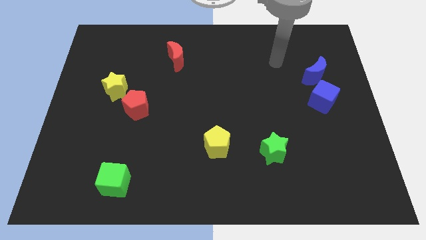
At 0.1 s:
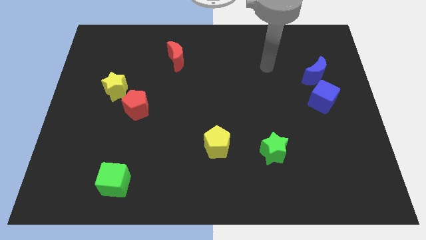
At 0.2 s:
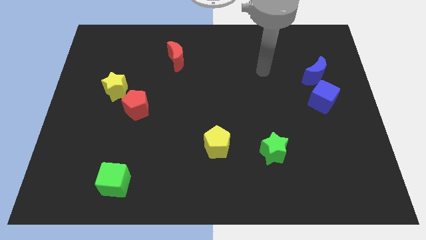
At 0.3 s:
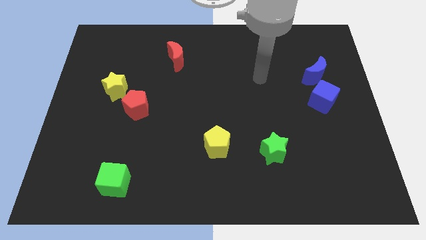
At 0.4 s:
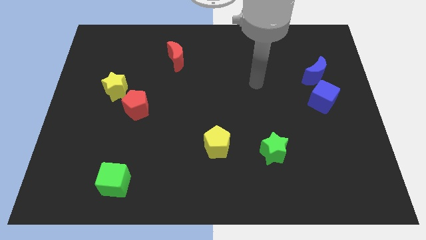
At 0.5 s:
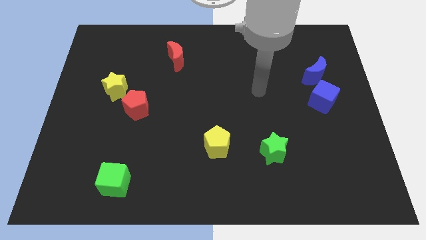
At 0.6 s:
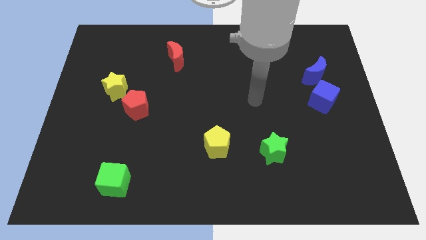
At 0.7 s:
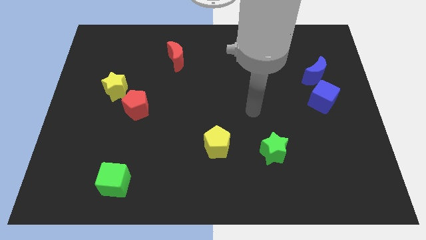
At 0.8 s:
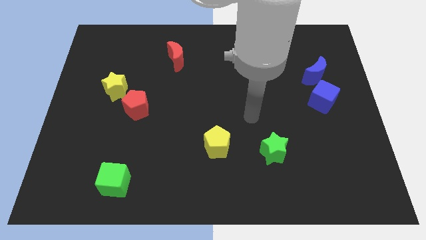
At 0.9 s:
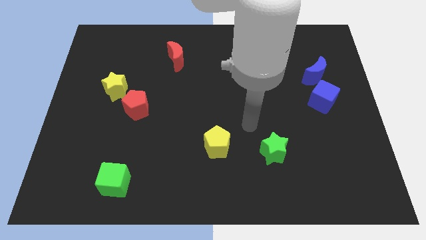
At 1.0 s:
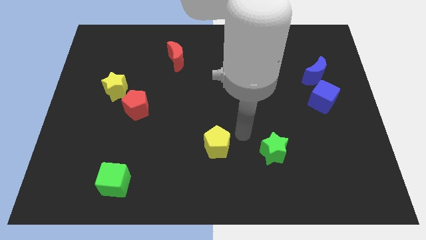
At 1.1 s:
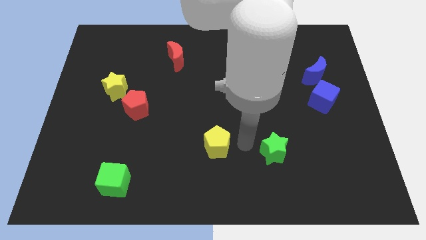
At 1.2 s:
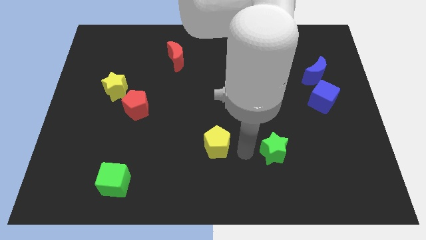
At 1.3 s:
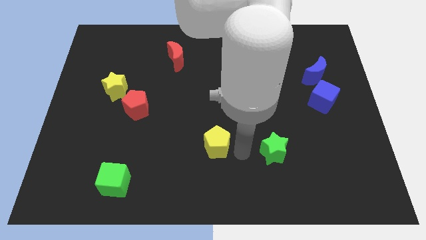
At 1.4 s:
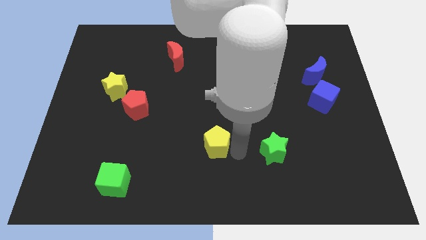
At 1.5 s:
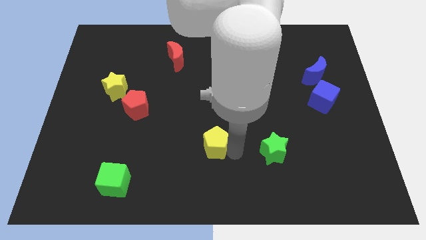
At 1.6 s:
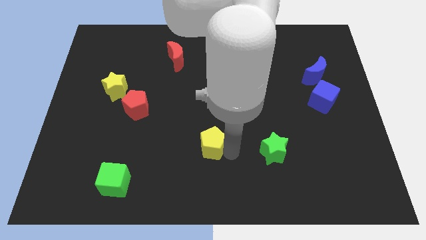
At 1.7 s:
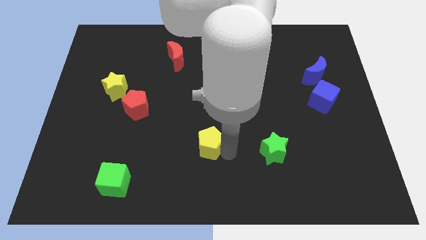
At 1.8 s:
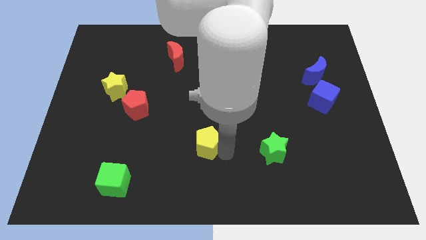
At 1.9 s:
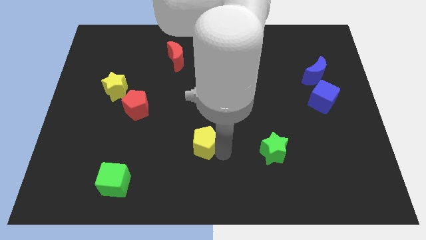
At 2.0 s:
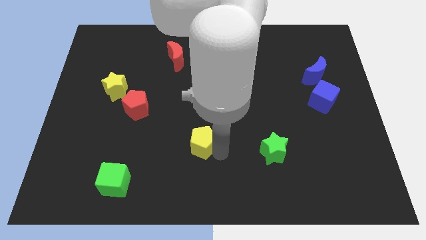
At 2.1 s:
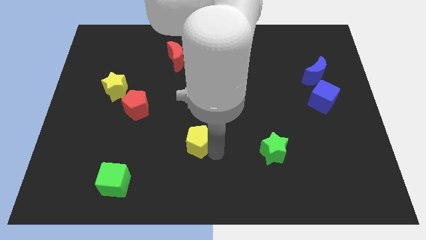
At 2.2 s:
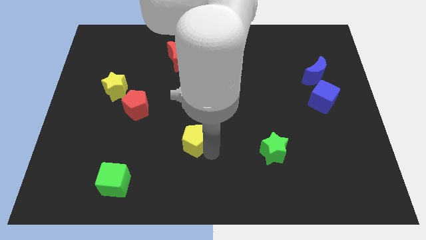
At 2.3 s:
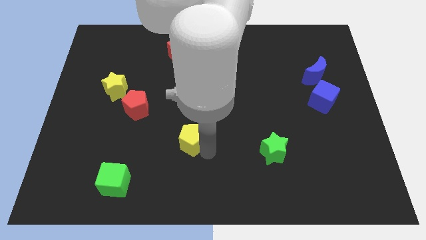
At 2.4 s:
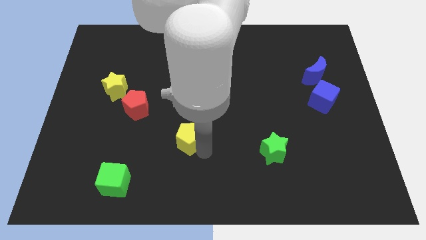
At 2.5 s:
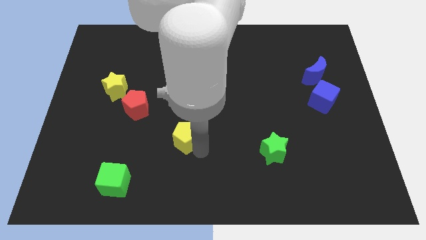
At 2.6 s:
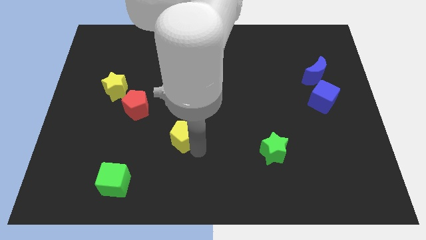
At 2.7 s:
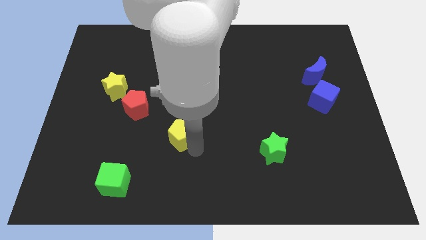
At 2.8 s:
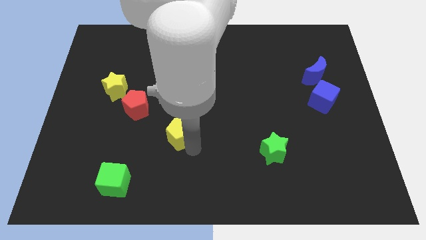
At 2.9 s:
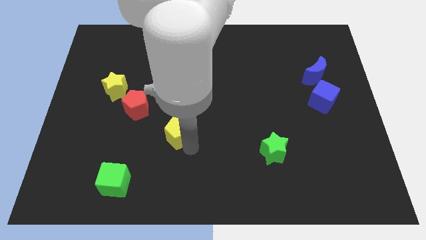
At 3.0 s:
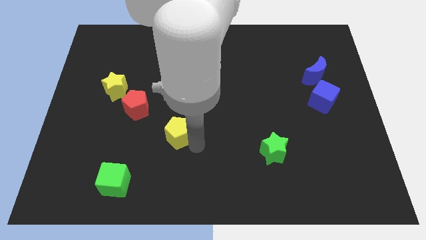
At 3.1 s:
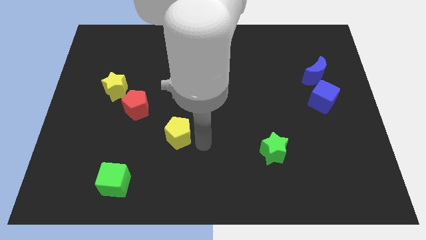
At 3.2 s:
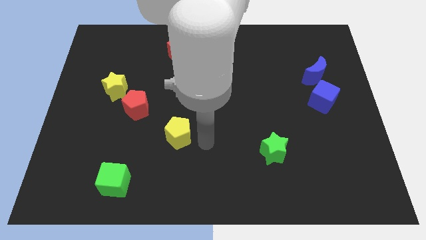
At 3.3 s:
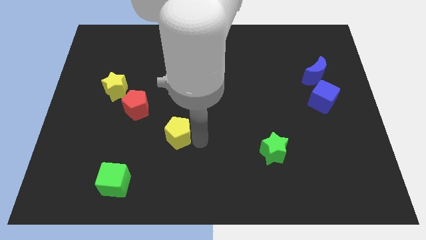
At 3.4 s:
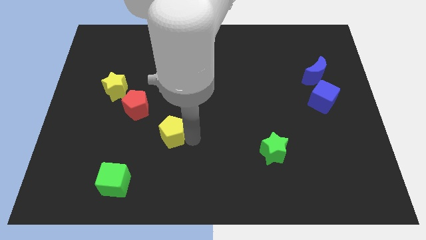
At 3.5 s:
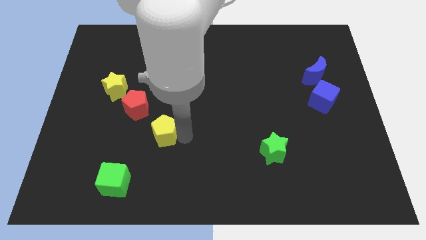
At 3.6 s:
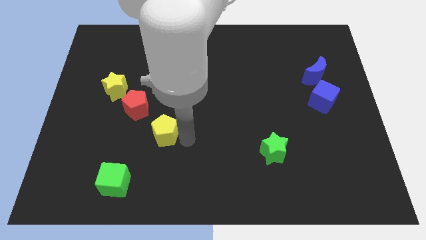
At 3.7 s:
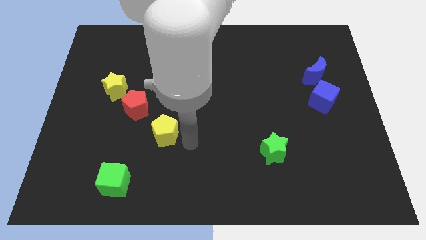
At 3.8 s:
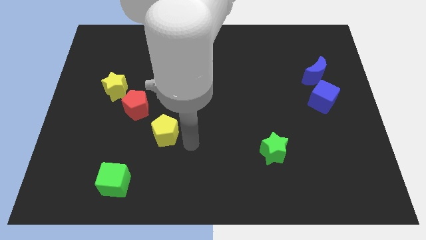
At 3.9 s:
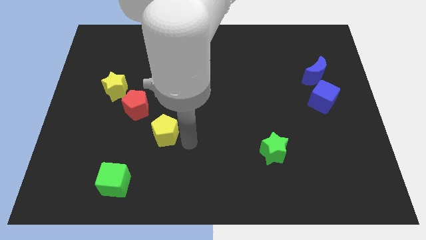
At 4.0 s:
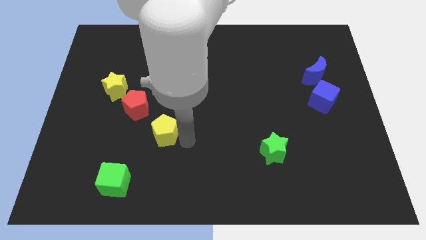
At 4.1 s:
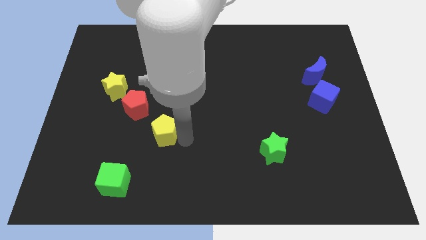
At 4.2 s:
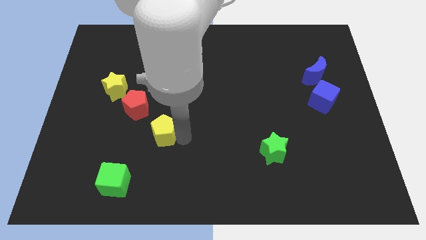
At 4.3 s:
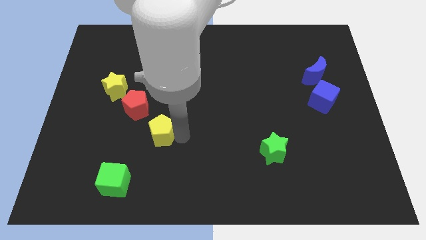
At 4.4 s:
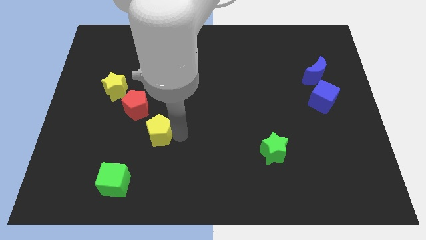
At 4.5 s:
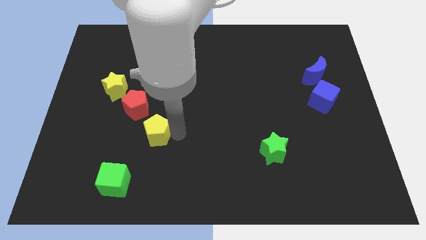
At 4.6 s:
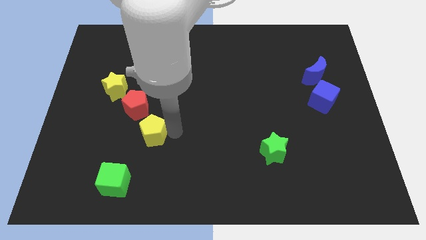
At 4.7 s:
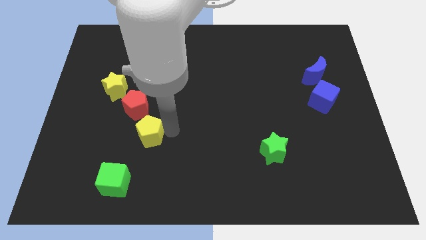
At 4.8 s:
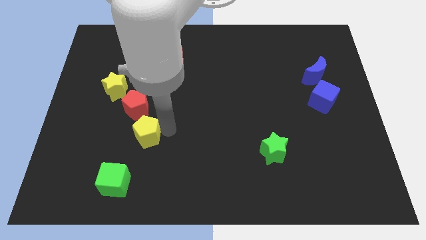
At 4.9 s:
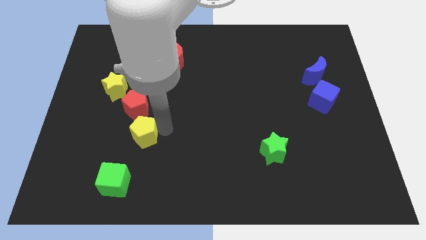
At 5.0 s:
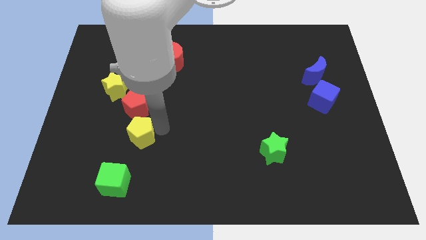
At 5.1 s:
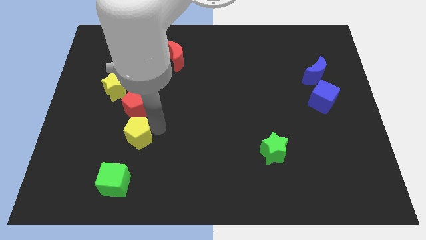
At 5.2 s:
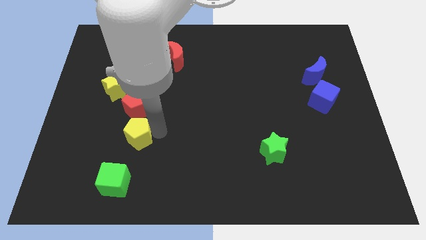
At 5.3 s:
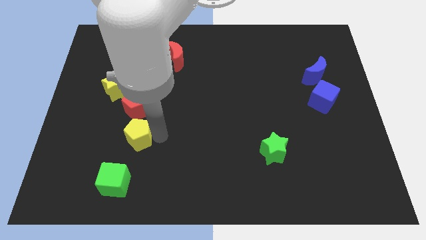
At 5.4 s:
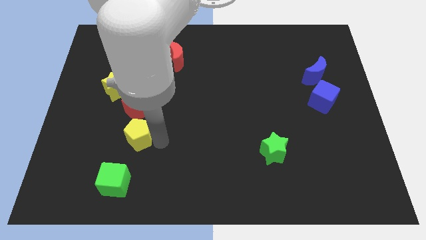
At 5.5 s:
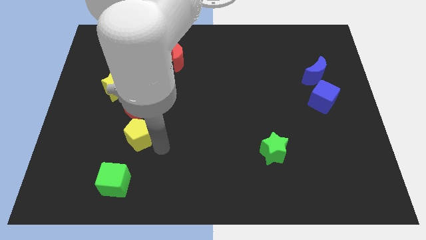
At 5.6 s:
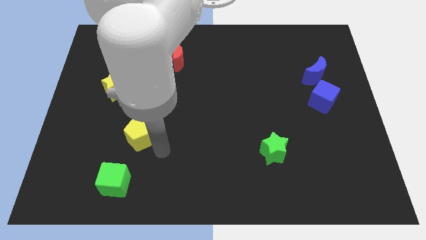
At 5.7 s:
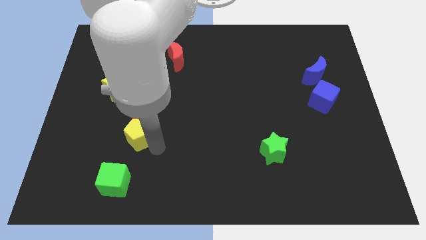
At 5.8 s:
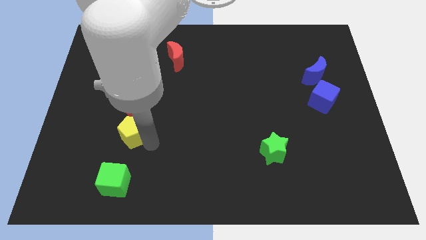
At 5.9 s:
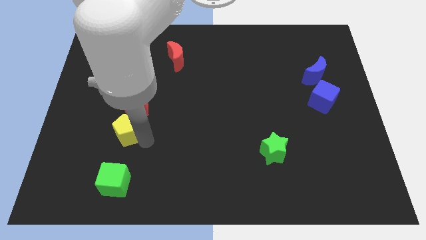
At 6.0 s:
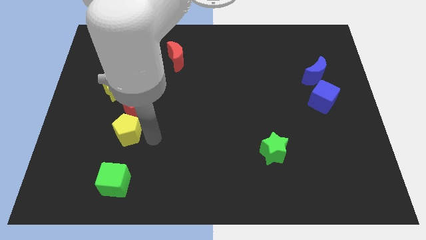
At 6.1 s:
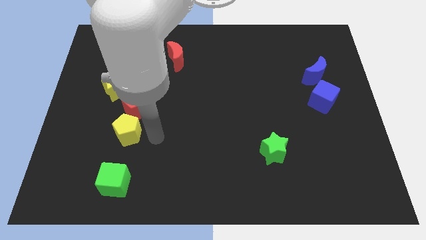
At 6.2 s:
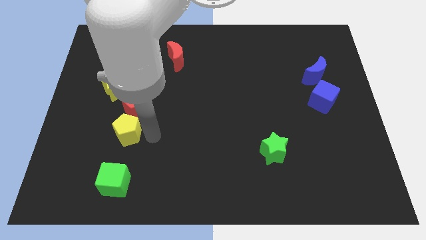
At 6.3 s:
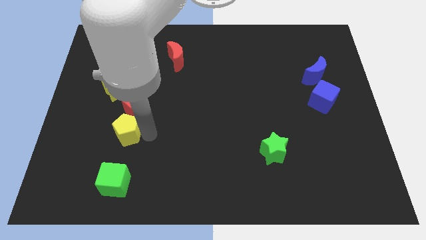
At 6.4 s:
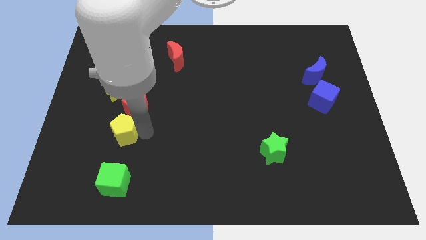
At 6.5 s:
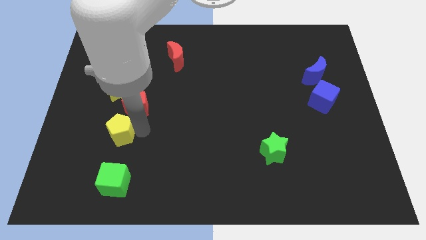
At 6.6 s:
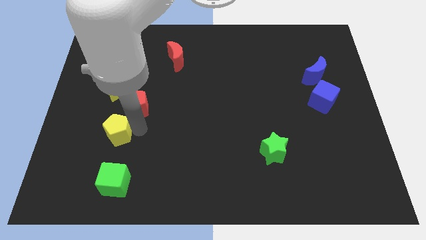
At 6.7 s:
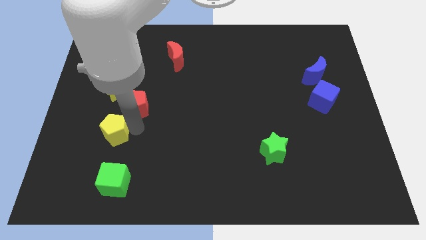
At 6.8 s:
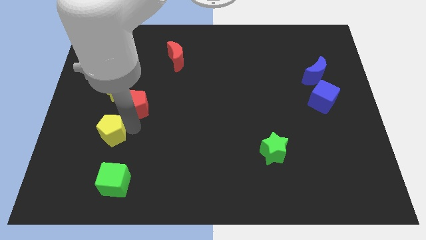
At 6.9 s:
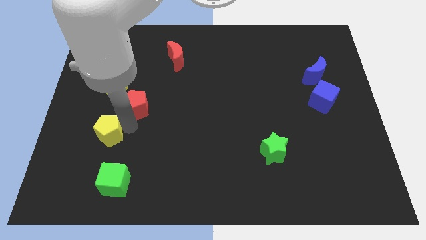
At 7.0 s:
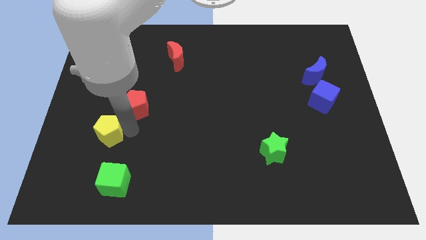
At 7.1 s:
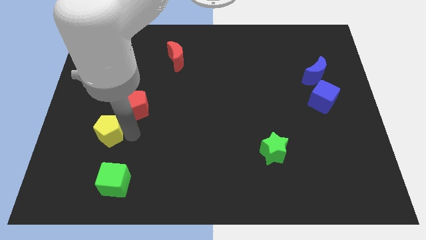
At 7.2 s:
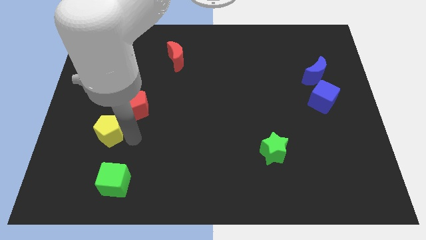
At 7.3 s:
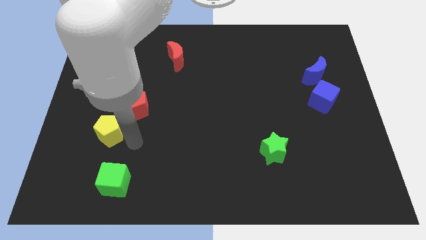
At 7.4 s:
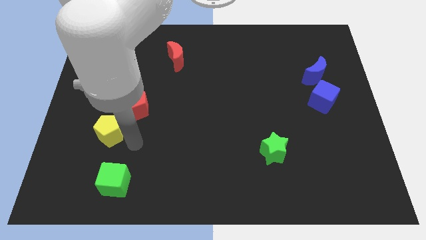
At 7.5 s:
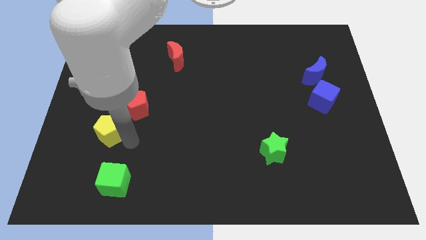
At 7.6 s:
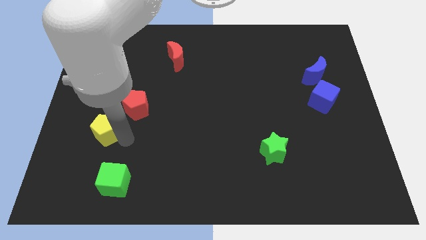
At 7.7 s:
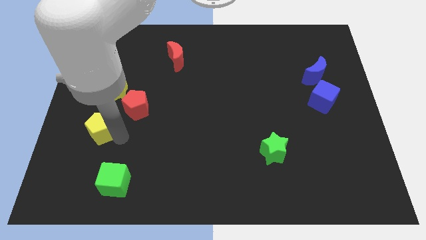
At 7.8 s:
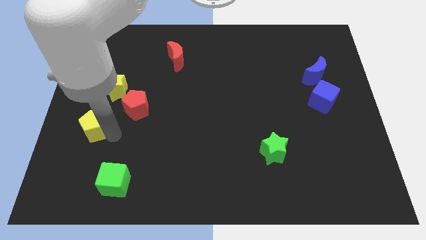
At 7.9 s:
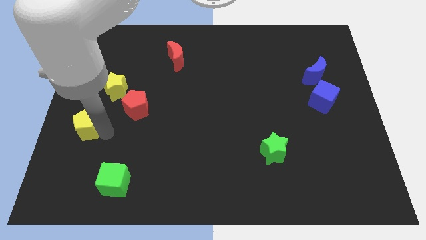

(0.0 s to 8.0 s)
put the yellow pentagon to the center left
